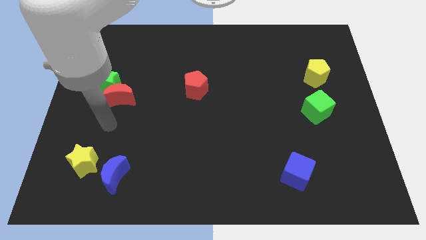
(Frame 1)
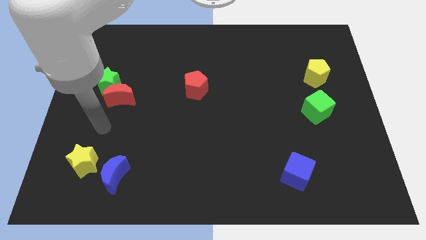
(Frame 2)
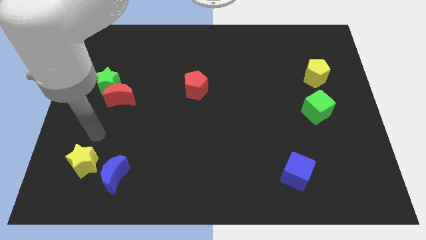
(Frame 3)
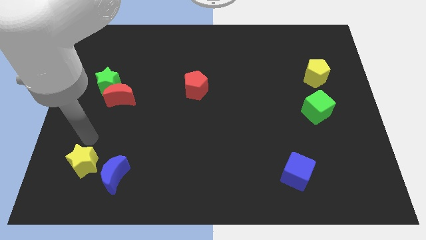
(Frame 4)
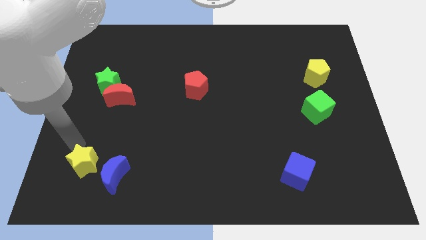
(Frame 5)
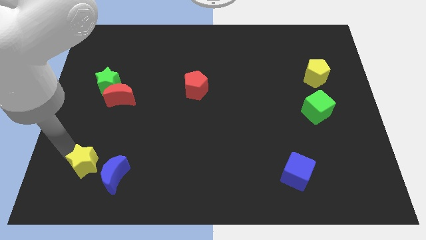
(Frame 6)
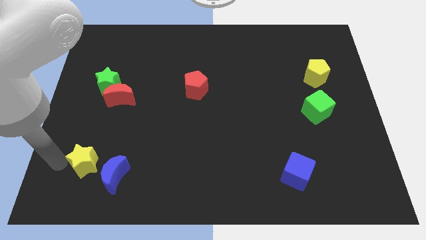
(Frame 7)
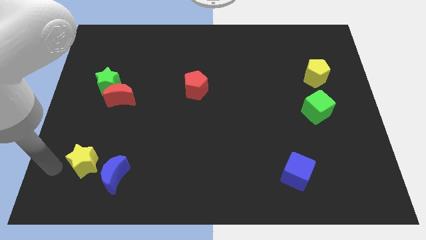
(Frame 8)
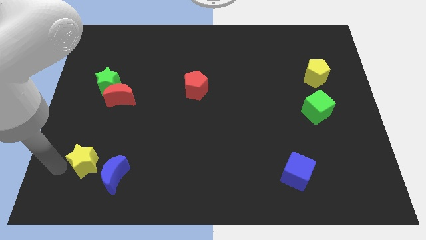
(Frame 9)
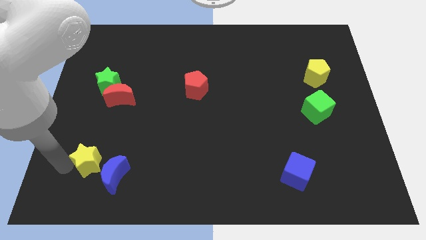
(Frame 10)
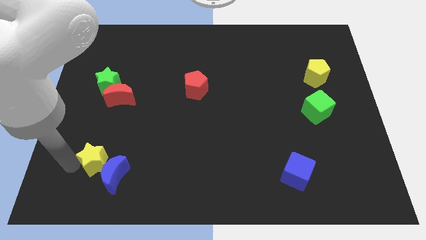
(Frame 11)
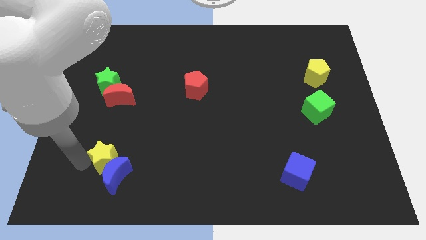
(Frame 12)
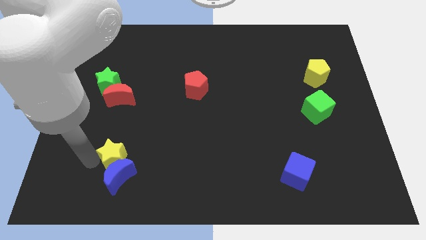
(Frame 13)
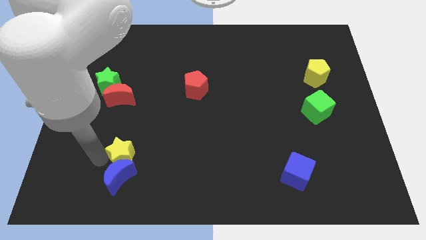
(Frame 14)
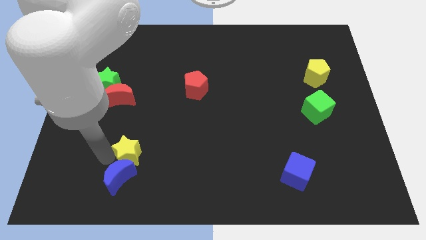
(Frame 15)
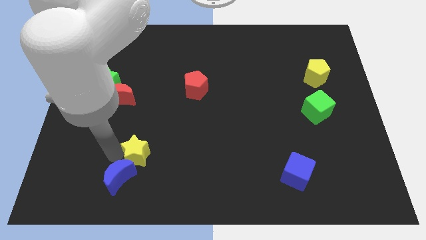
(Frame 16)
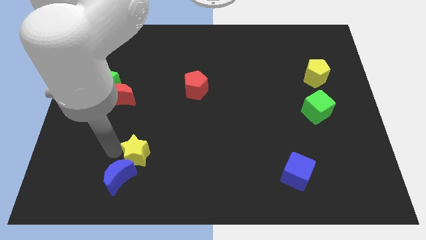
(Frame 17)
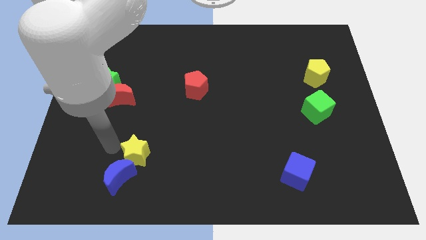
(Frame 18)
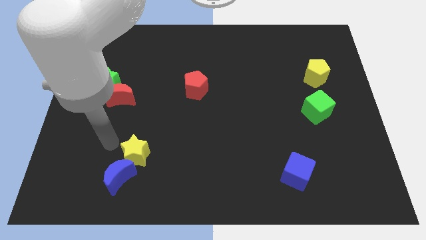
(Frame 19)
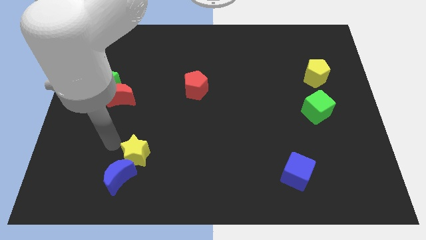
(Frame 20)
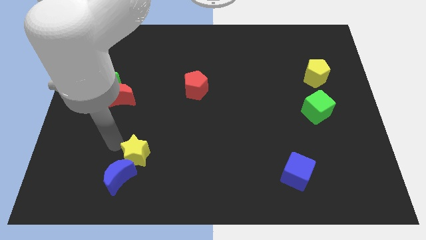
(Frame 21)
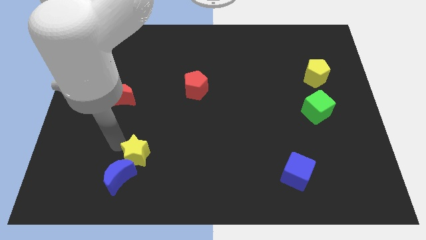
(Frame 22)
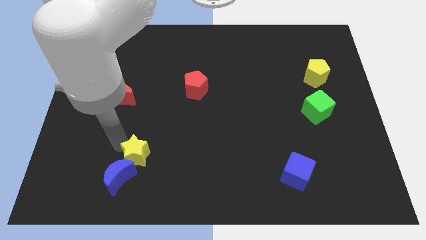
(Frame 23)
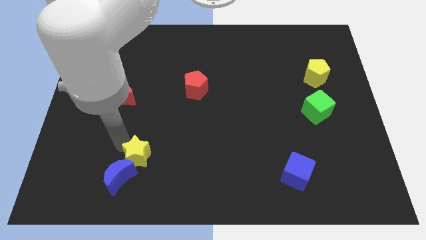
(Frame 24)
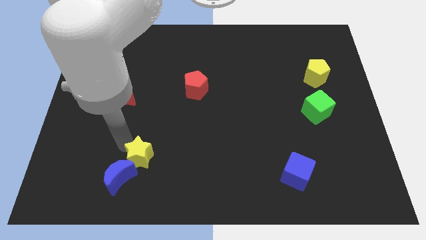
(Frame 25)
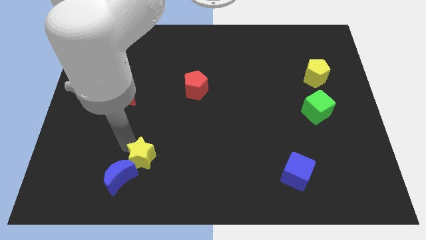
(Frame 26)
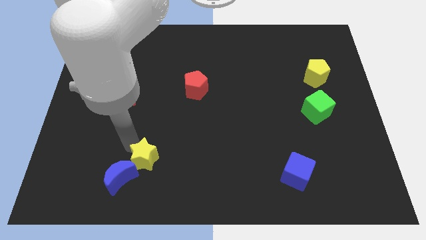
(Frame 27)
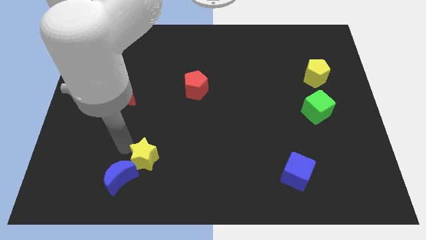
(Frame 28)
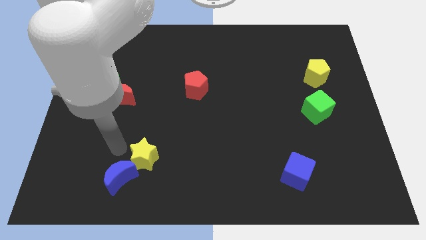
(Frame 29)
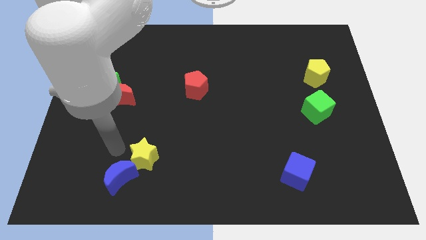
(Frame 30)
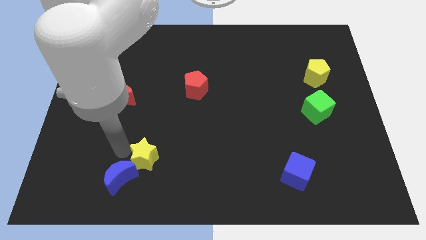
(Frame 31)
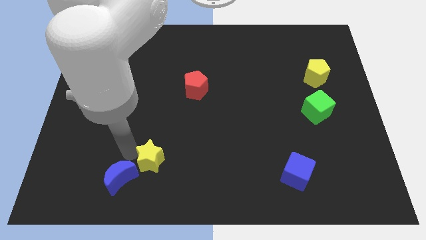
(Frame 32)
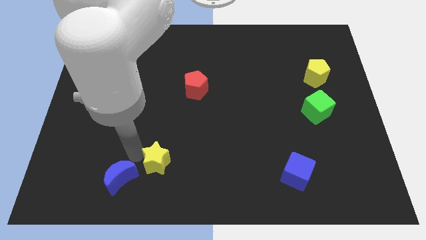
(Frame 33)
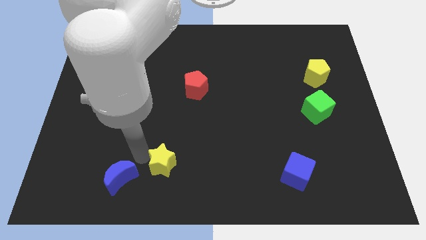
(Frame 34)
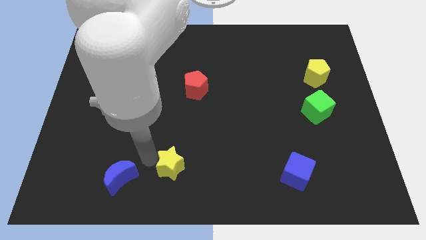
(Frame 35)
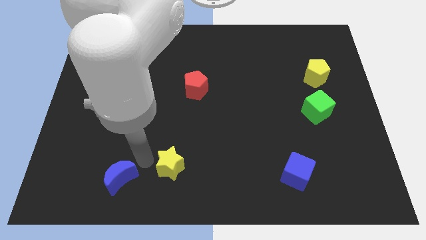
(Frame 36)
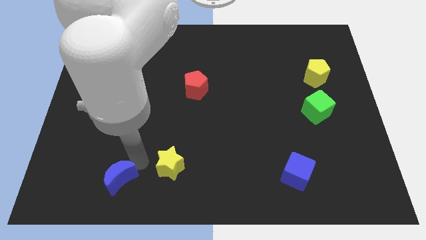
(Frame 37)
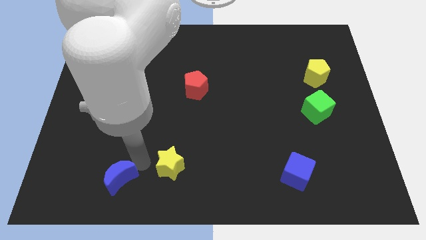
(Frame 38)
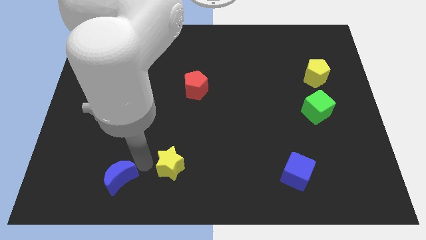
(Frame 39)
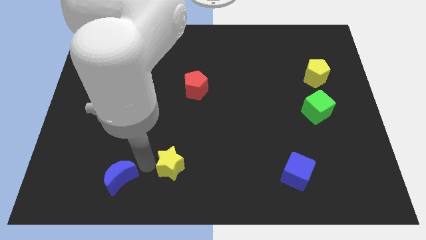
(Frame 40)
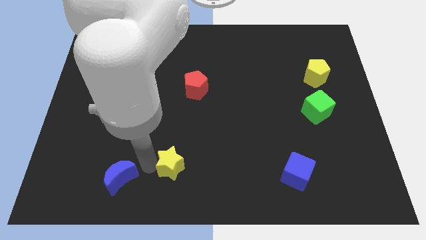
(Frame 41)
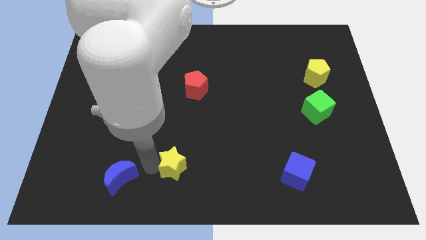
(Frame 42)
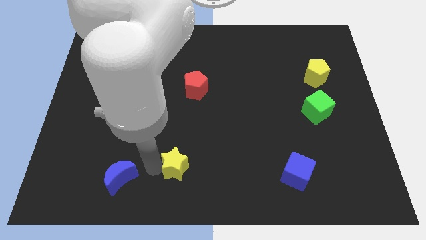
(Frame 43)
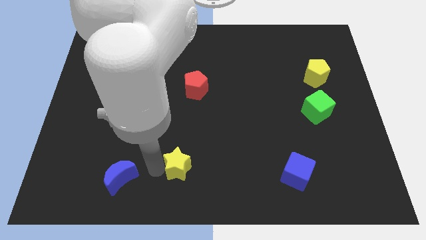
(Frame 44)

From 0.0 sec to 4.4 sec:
move the yellow star to the right

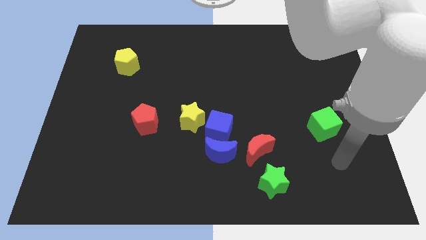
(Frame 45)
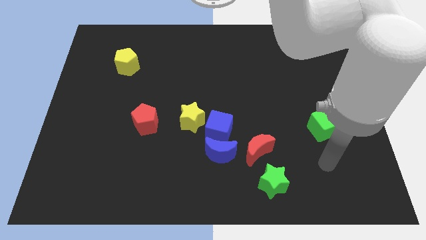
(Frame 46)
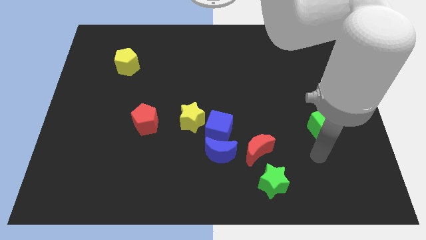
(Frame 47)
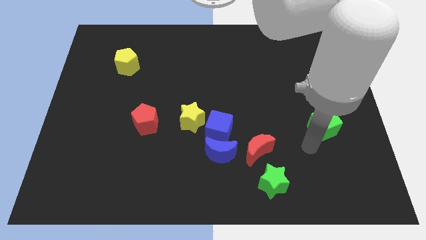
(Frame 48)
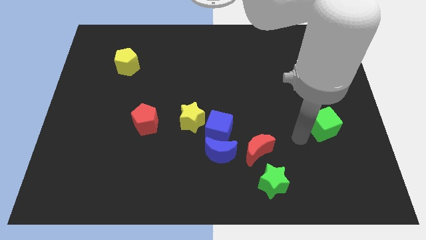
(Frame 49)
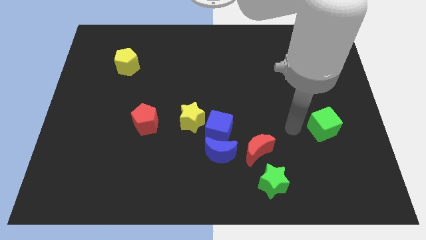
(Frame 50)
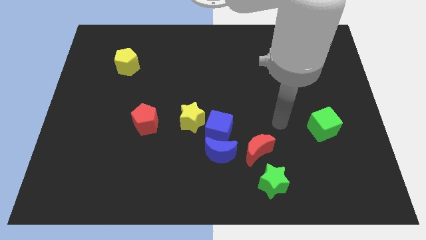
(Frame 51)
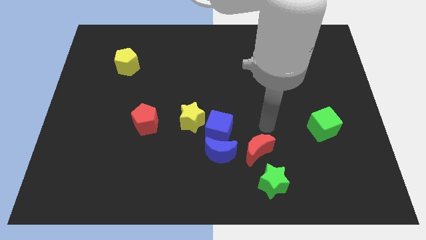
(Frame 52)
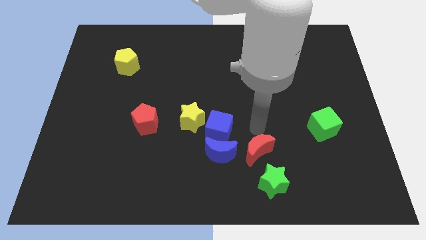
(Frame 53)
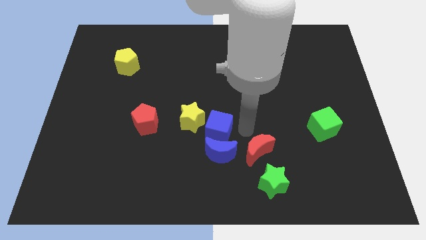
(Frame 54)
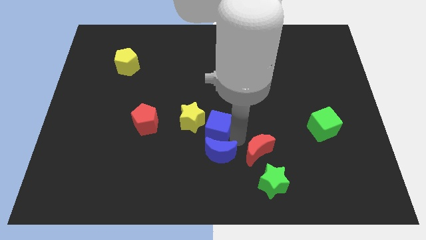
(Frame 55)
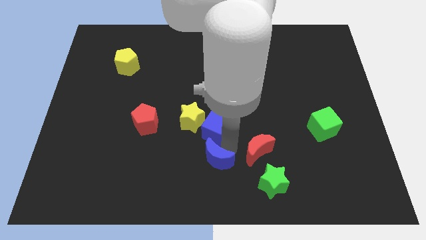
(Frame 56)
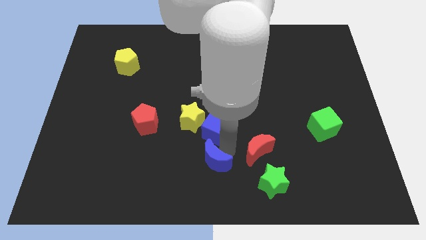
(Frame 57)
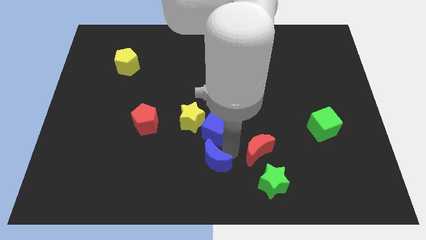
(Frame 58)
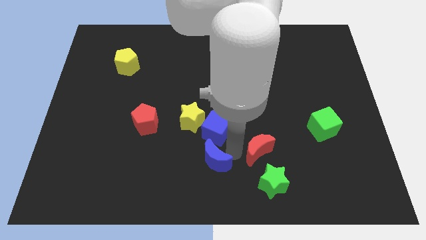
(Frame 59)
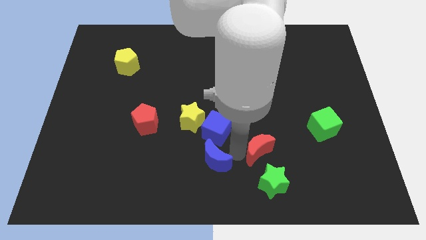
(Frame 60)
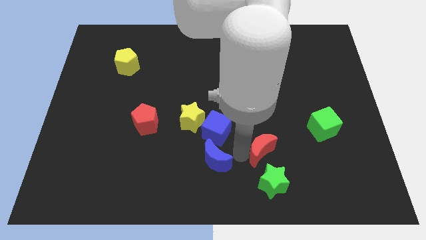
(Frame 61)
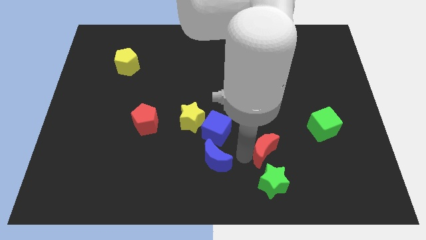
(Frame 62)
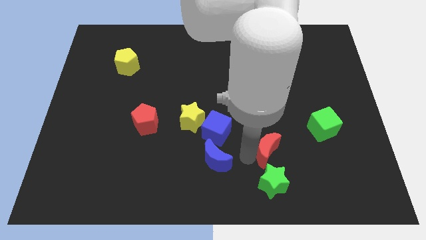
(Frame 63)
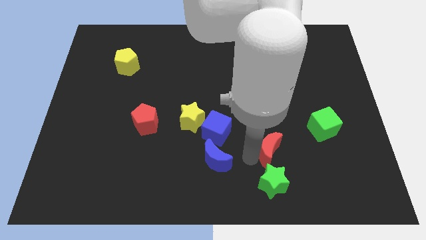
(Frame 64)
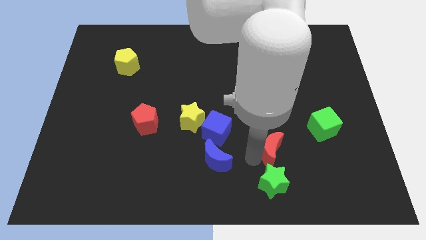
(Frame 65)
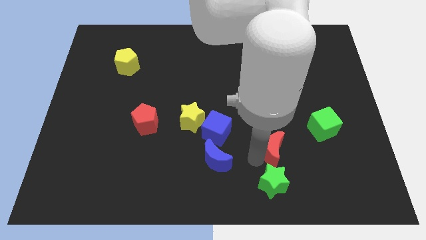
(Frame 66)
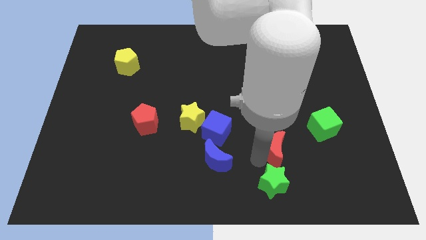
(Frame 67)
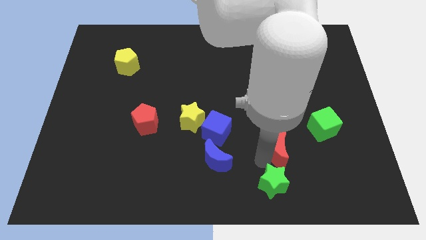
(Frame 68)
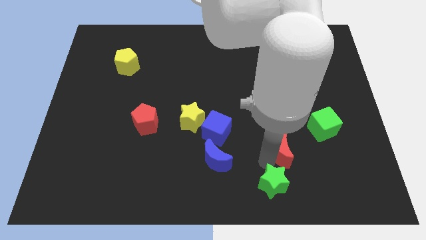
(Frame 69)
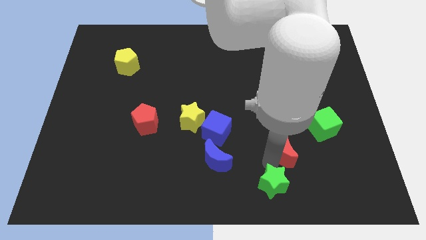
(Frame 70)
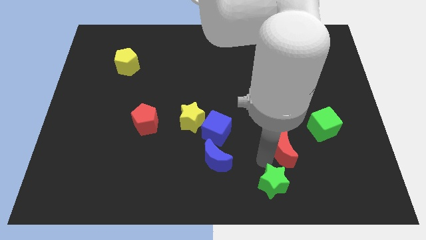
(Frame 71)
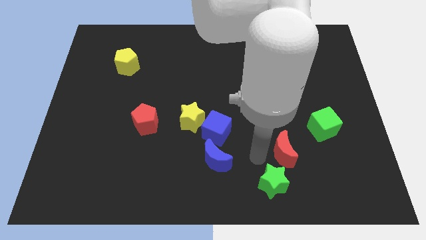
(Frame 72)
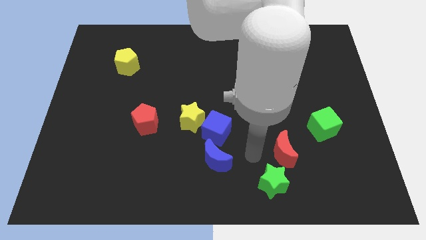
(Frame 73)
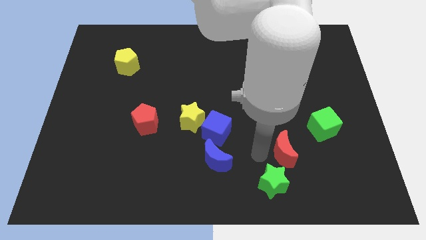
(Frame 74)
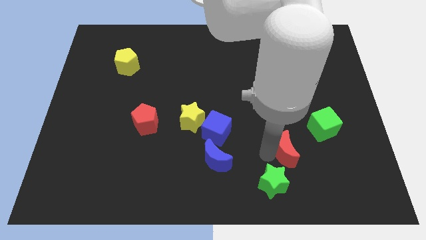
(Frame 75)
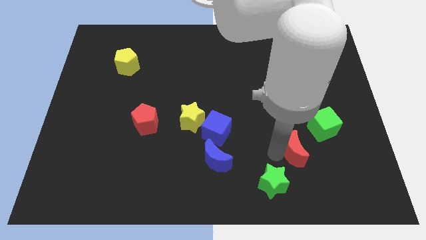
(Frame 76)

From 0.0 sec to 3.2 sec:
slide the red moon slightly to the right

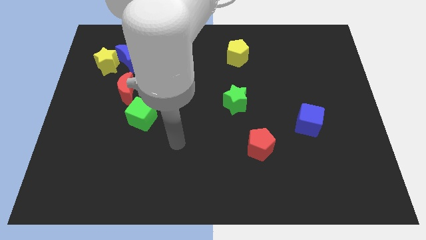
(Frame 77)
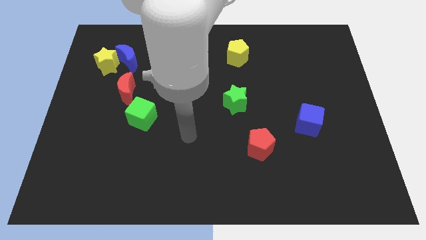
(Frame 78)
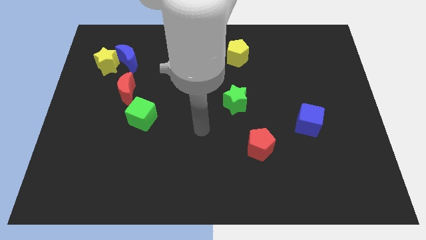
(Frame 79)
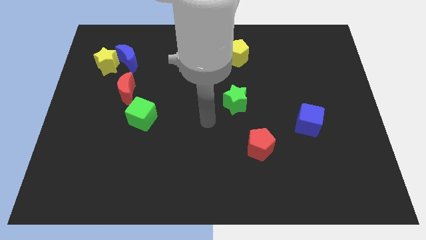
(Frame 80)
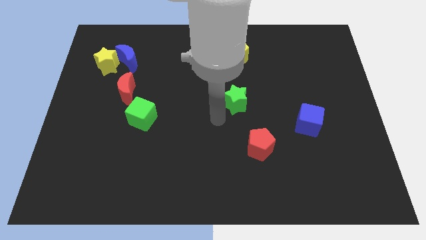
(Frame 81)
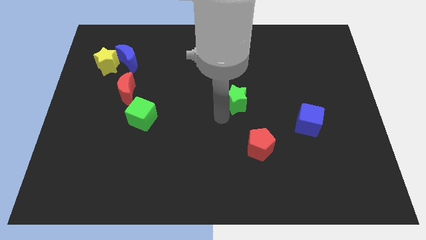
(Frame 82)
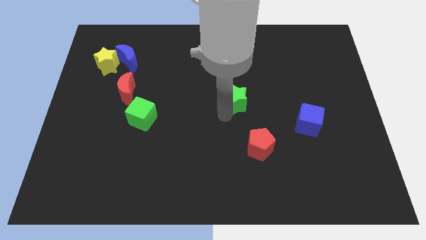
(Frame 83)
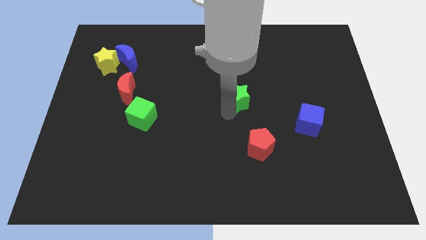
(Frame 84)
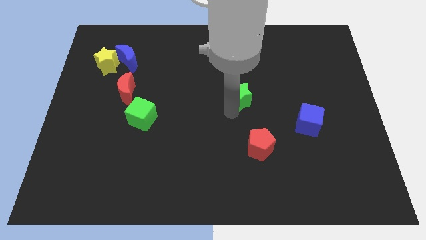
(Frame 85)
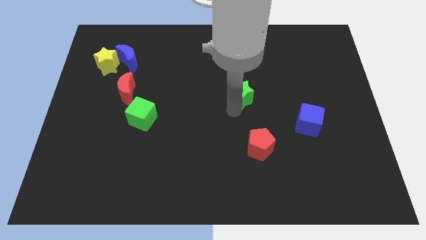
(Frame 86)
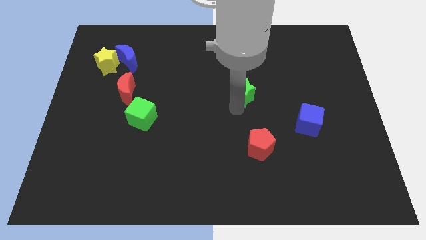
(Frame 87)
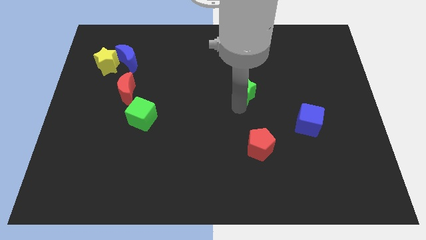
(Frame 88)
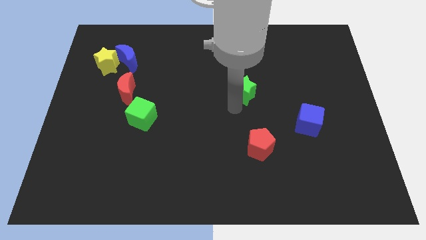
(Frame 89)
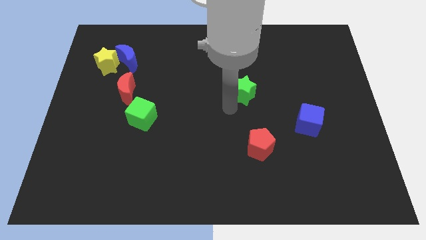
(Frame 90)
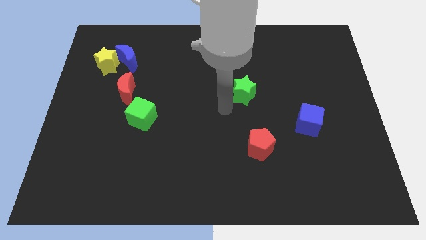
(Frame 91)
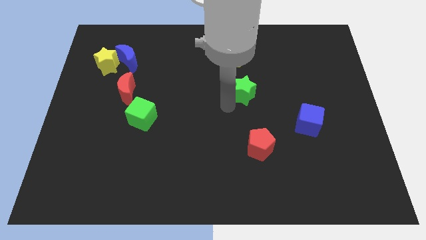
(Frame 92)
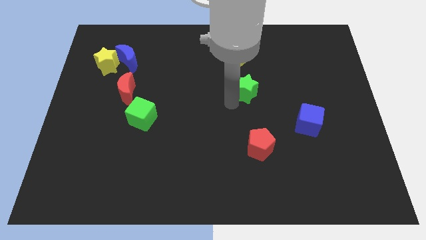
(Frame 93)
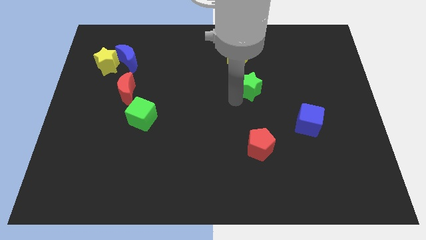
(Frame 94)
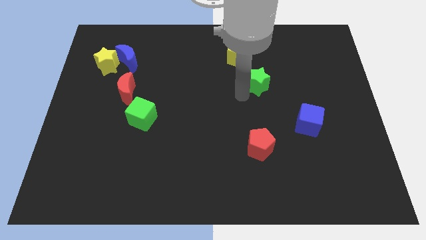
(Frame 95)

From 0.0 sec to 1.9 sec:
move the green star diagonally upwards and to the right somewhat
